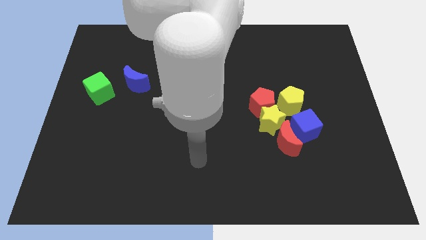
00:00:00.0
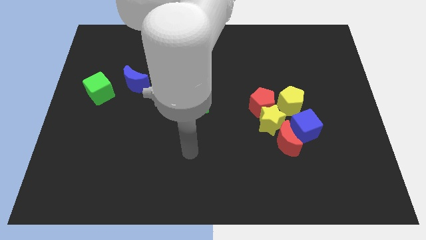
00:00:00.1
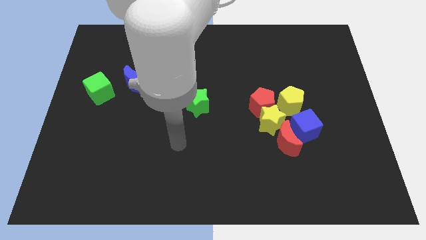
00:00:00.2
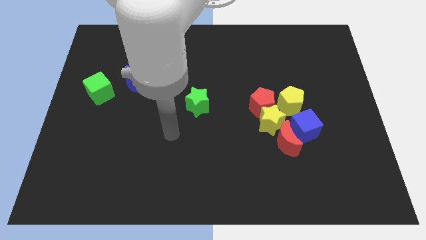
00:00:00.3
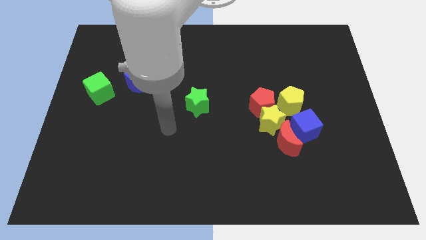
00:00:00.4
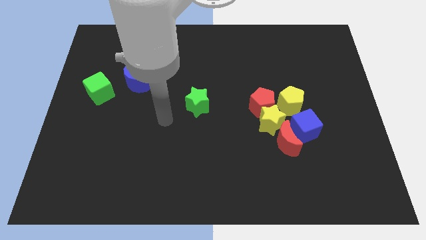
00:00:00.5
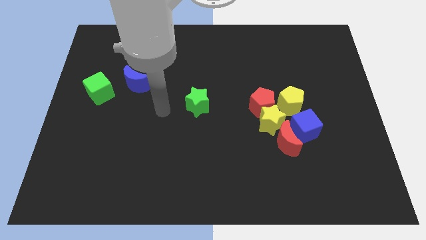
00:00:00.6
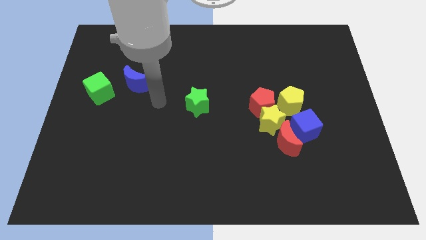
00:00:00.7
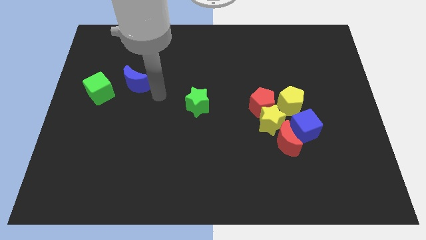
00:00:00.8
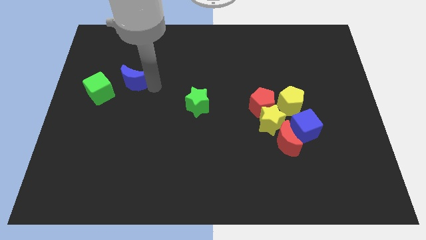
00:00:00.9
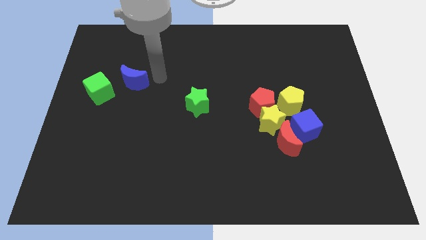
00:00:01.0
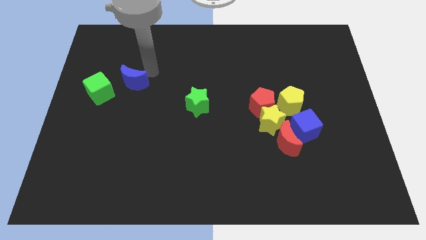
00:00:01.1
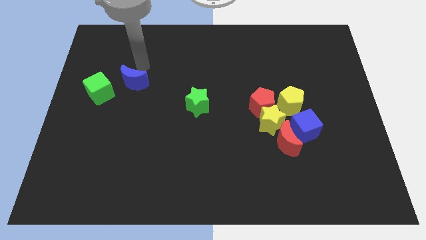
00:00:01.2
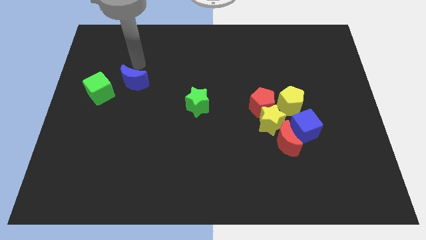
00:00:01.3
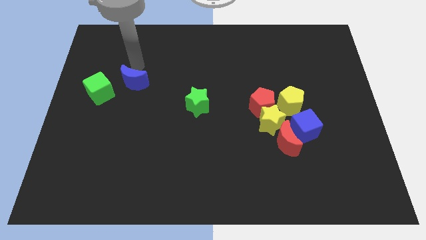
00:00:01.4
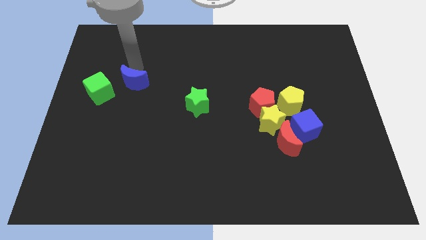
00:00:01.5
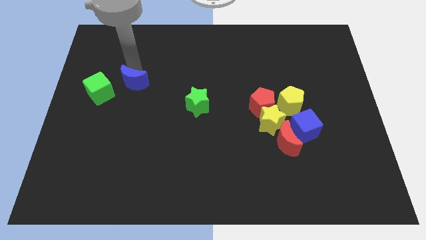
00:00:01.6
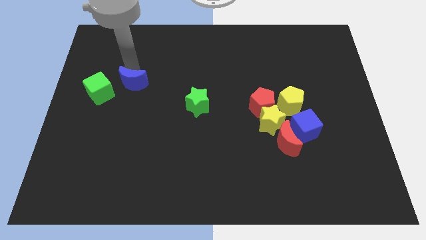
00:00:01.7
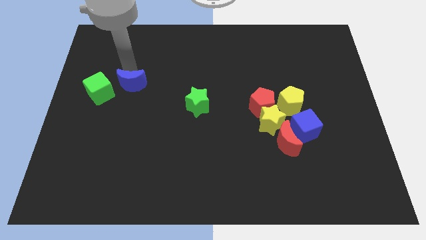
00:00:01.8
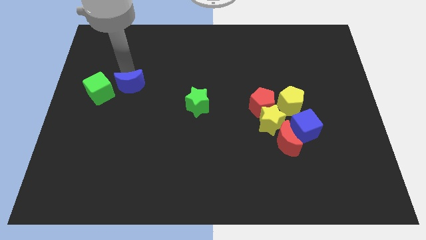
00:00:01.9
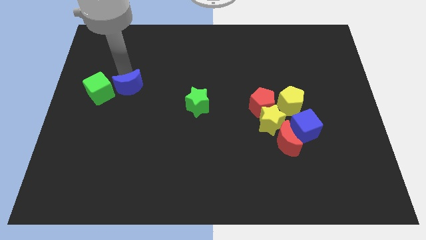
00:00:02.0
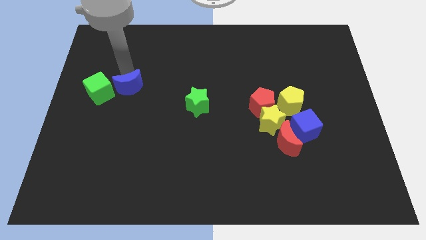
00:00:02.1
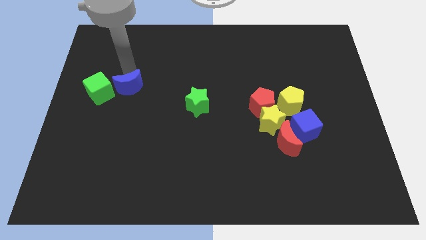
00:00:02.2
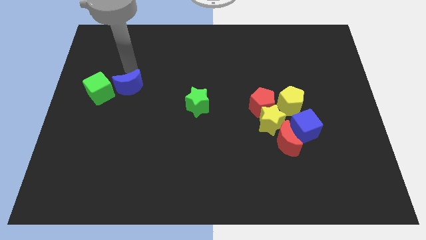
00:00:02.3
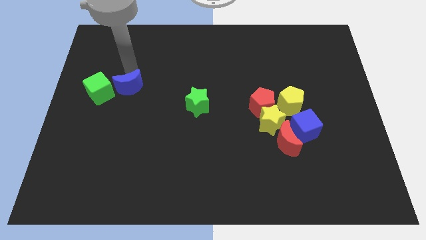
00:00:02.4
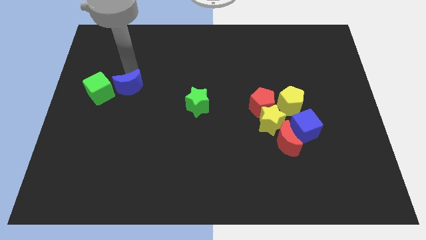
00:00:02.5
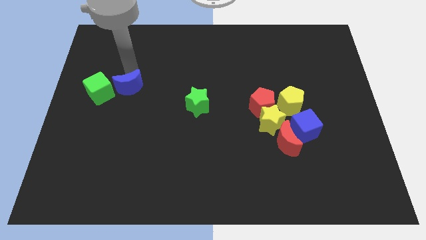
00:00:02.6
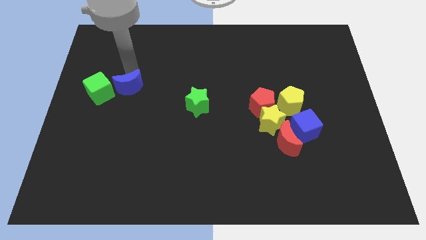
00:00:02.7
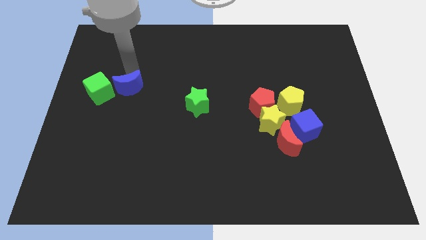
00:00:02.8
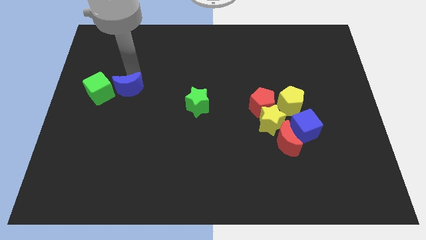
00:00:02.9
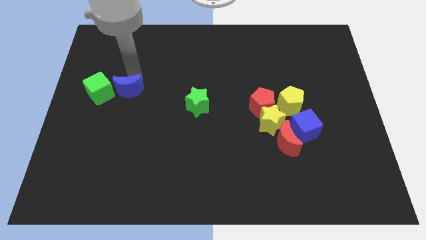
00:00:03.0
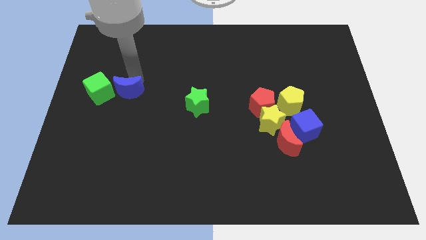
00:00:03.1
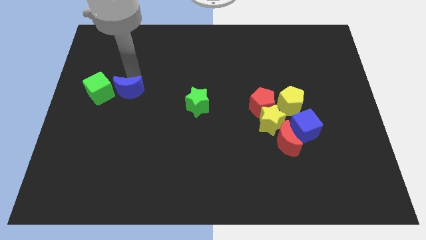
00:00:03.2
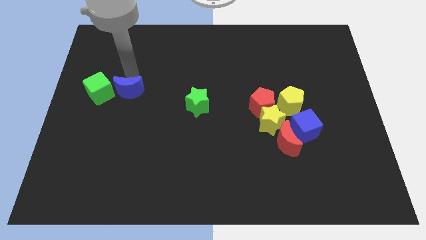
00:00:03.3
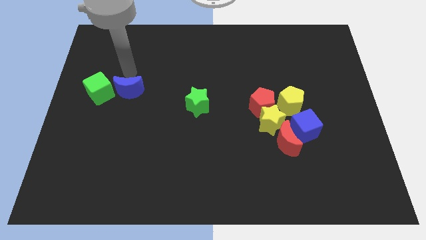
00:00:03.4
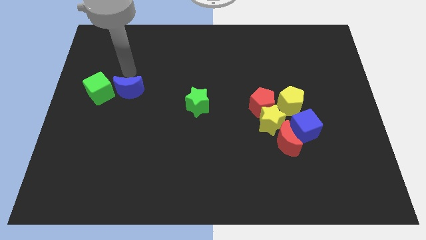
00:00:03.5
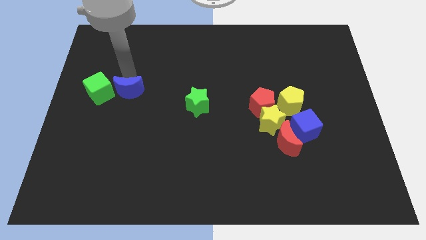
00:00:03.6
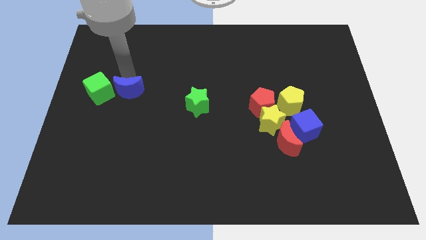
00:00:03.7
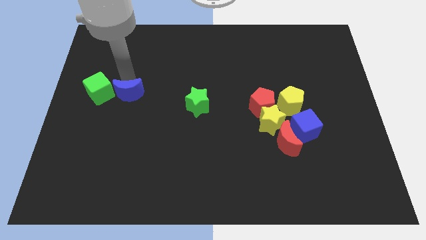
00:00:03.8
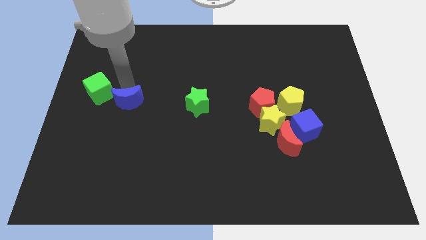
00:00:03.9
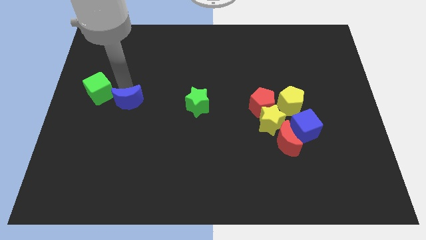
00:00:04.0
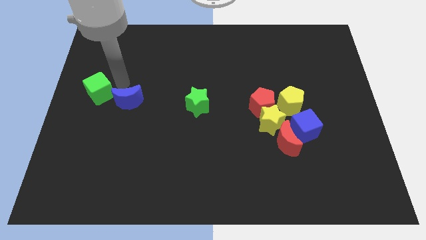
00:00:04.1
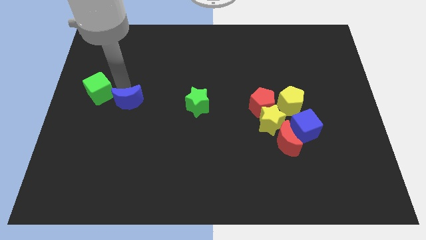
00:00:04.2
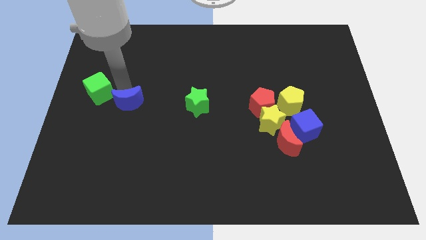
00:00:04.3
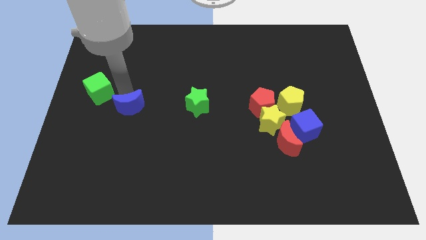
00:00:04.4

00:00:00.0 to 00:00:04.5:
move the blue moon a bit downwards

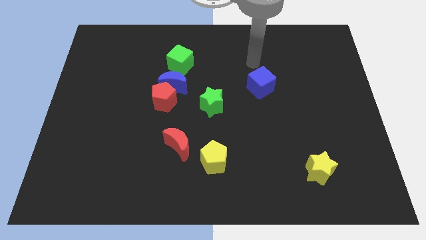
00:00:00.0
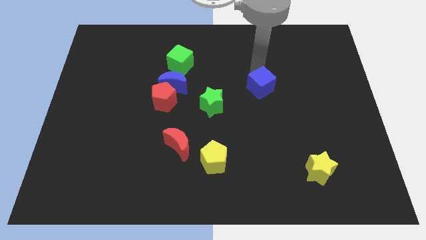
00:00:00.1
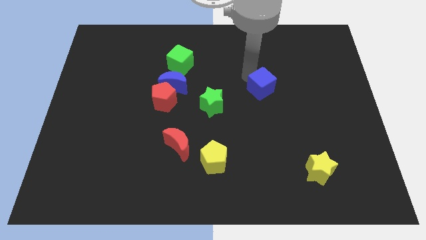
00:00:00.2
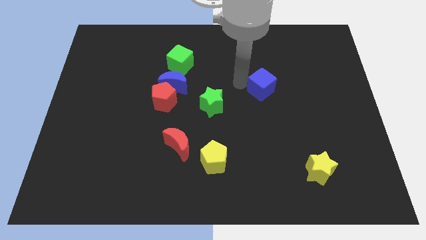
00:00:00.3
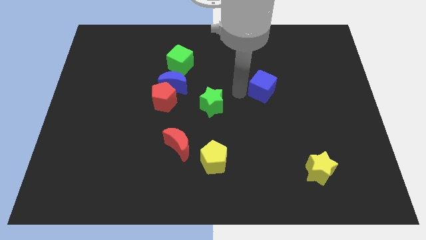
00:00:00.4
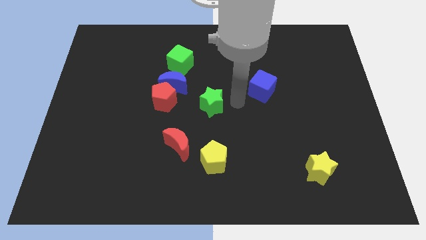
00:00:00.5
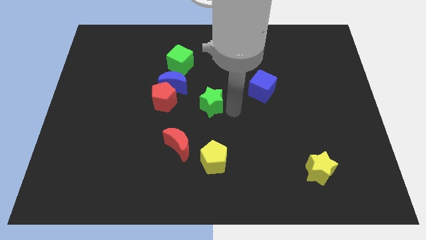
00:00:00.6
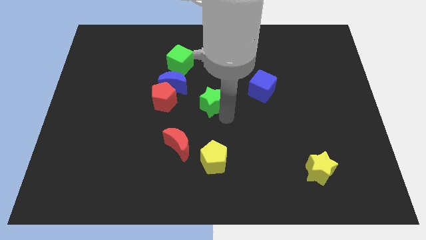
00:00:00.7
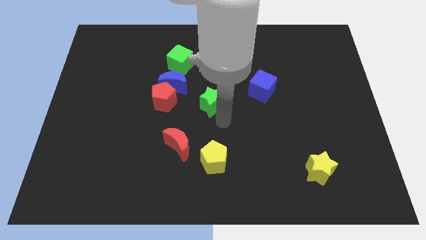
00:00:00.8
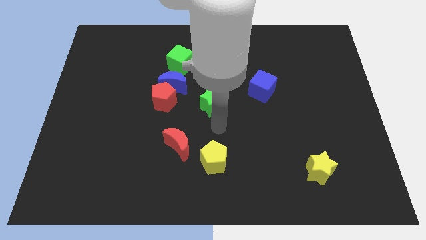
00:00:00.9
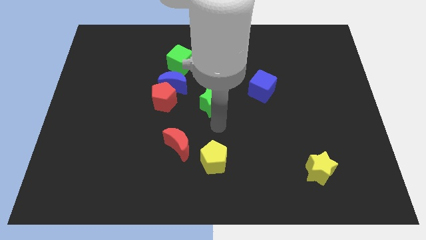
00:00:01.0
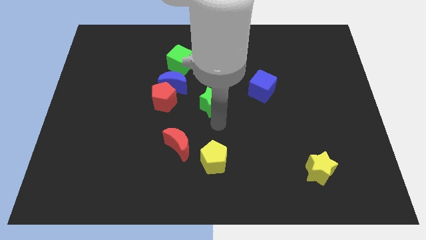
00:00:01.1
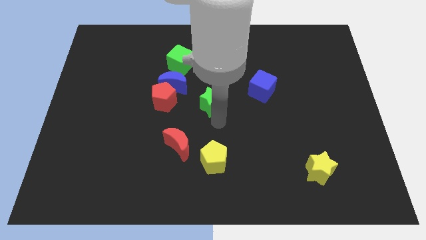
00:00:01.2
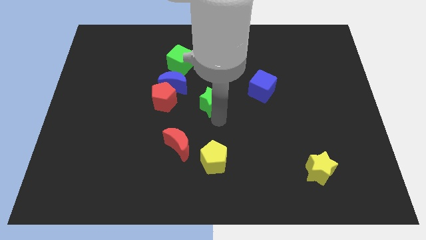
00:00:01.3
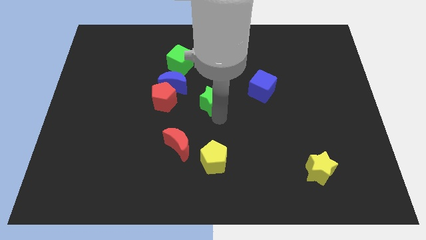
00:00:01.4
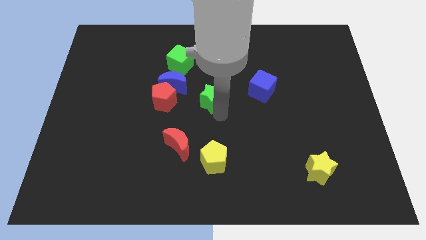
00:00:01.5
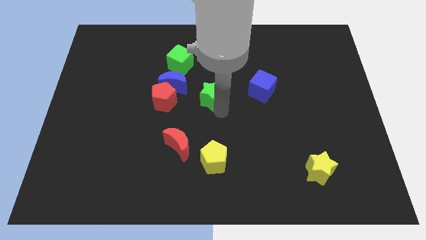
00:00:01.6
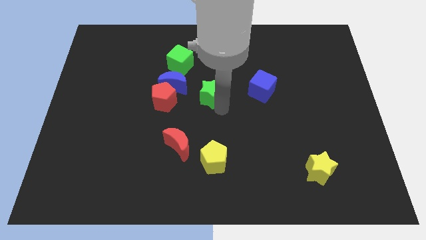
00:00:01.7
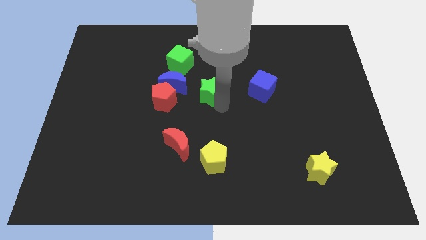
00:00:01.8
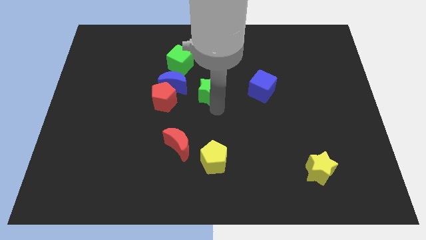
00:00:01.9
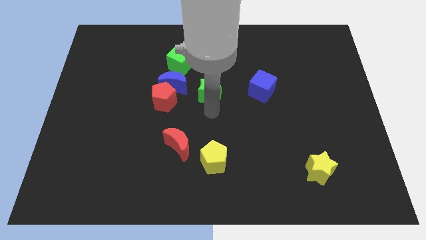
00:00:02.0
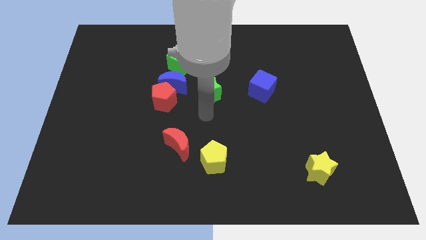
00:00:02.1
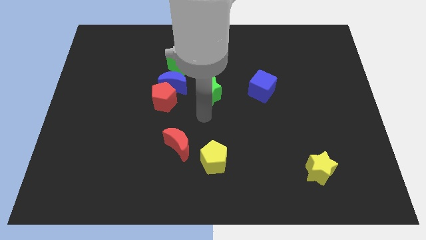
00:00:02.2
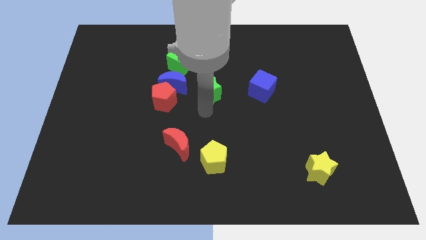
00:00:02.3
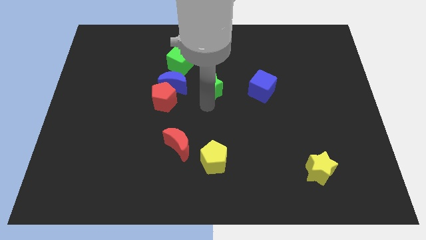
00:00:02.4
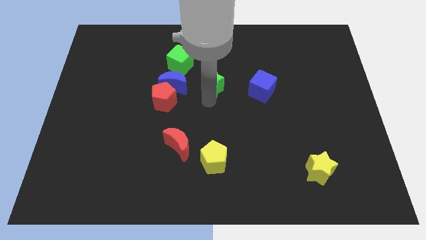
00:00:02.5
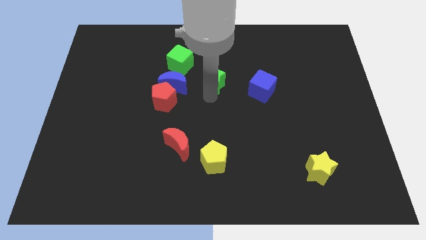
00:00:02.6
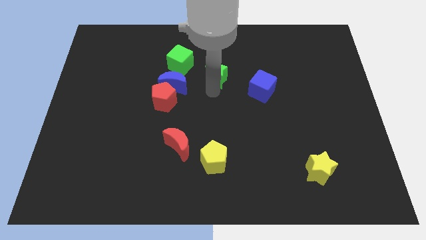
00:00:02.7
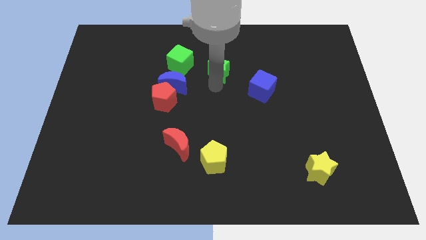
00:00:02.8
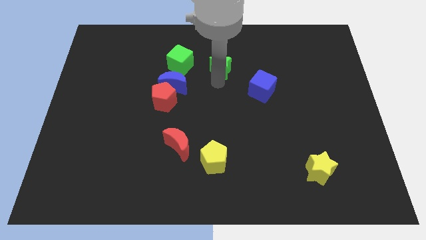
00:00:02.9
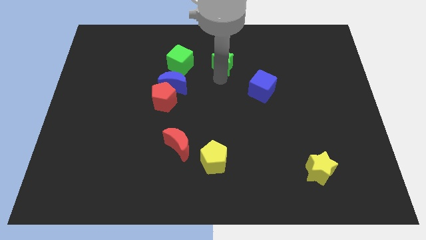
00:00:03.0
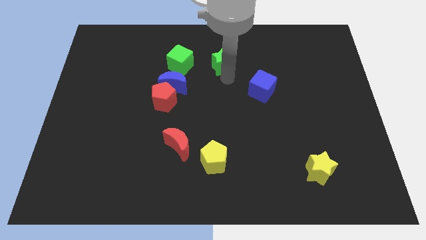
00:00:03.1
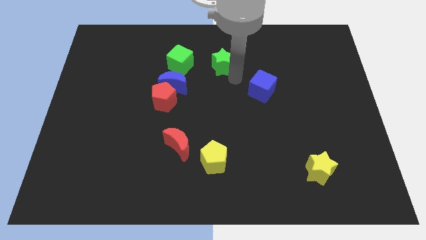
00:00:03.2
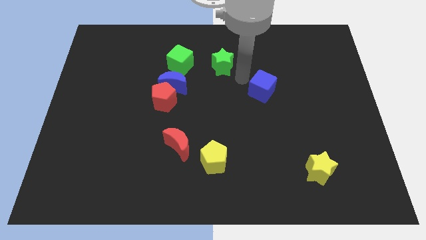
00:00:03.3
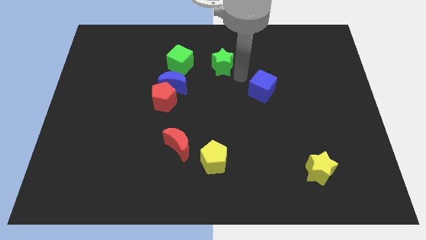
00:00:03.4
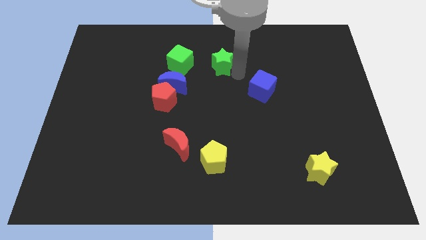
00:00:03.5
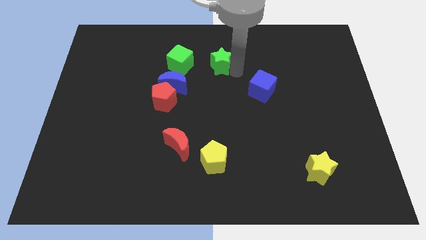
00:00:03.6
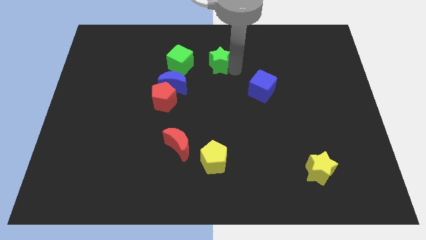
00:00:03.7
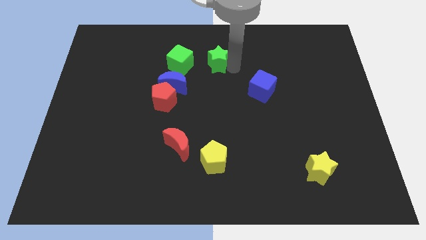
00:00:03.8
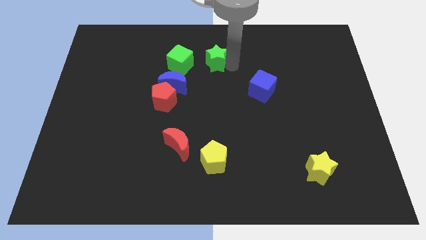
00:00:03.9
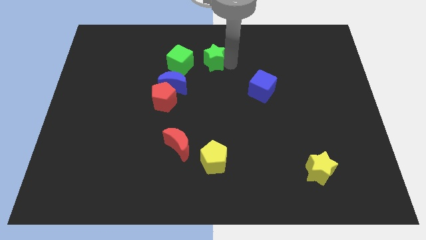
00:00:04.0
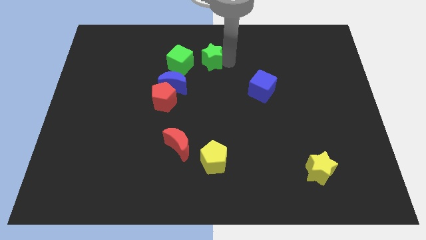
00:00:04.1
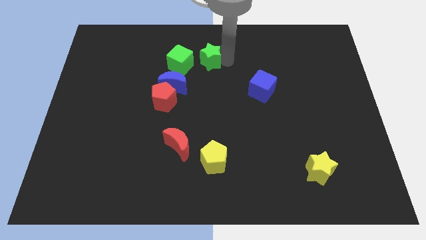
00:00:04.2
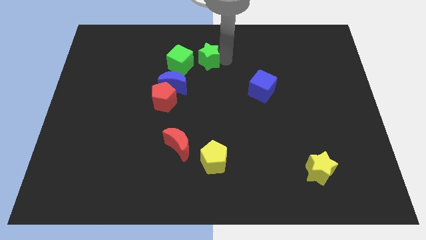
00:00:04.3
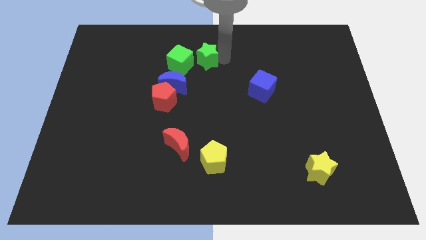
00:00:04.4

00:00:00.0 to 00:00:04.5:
slightly slide the green star diagonally upwards and left
